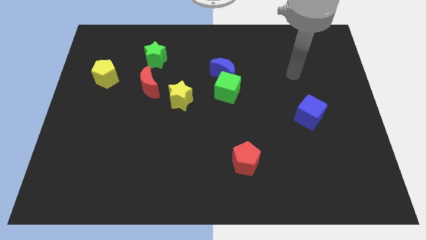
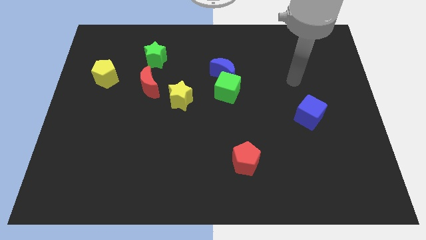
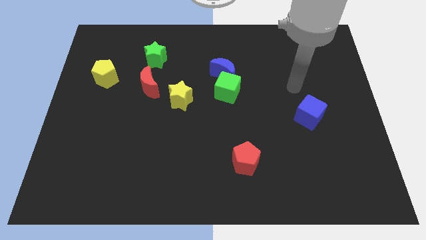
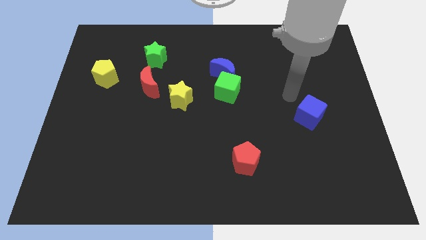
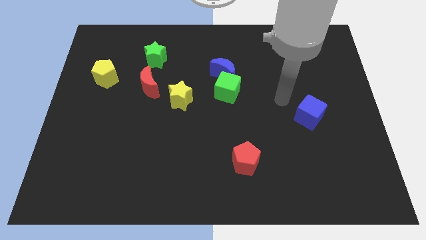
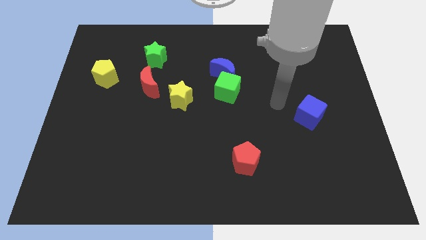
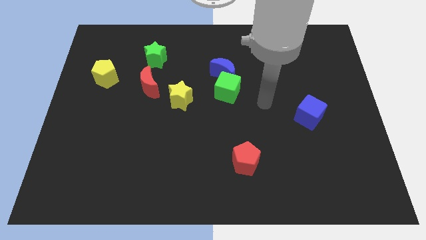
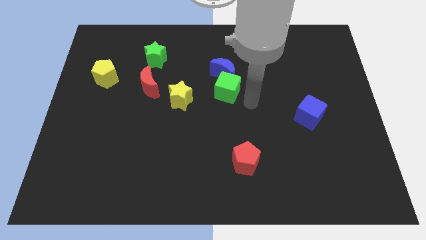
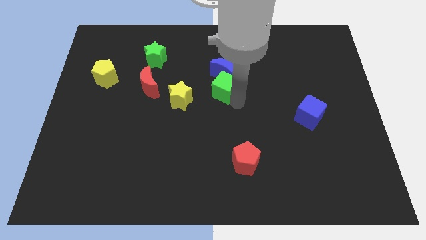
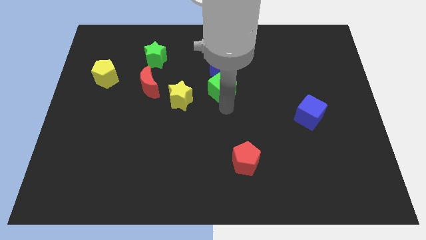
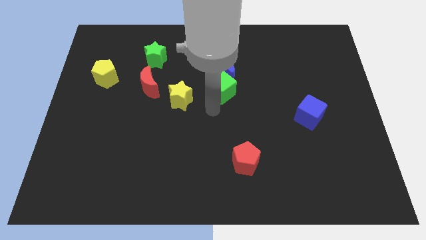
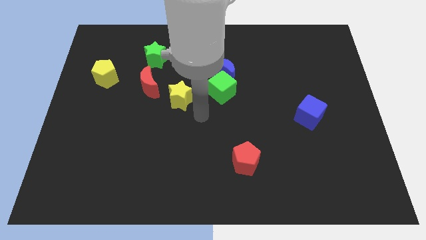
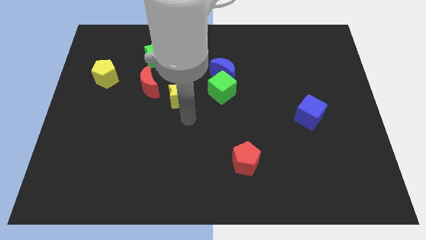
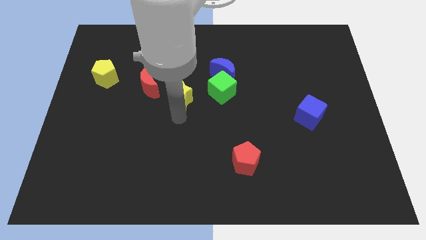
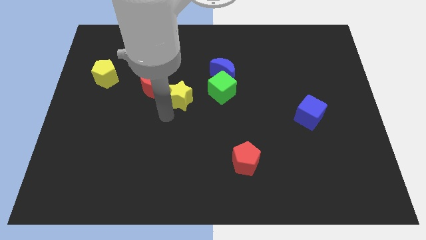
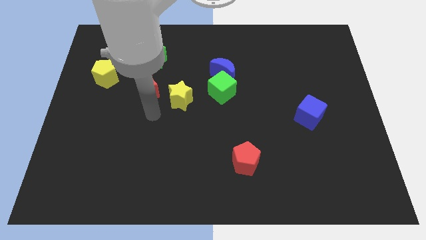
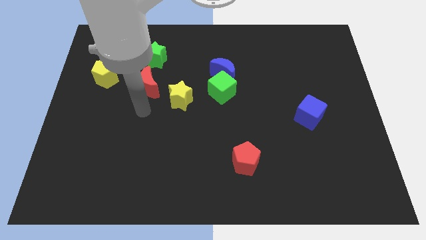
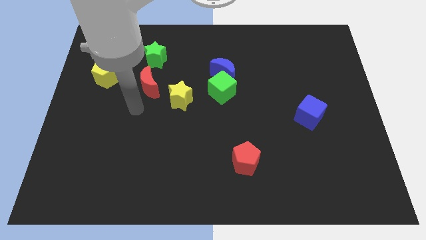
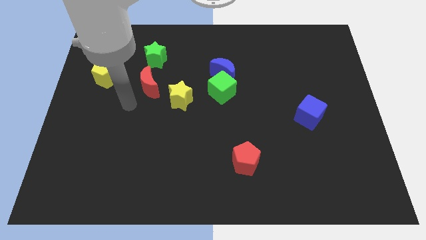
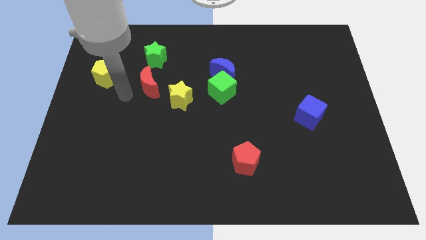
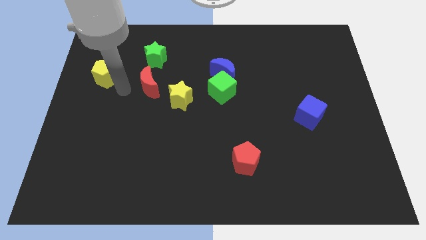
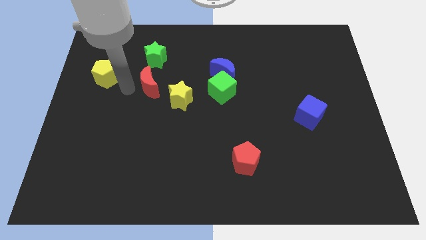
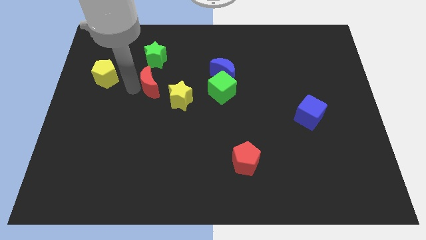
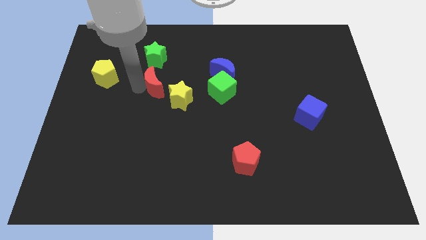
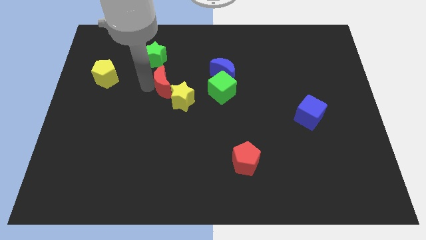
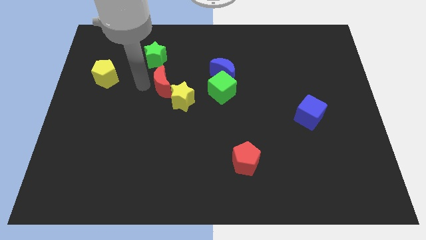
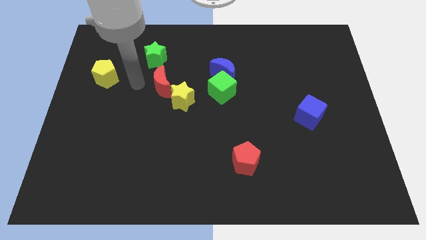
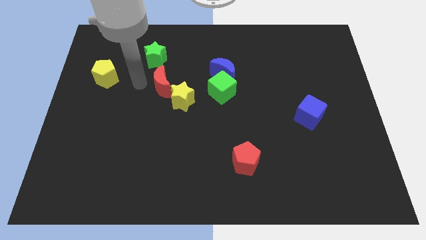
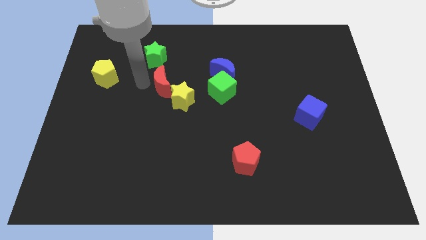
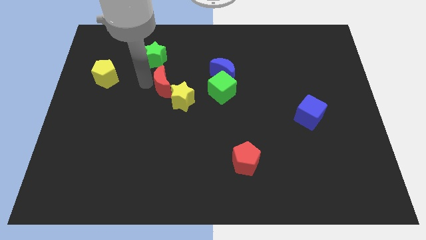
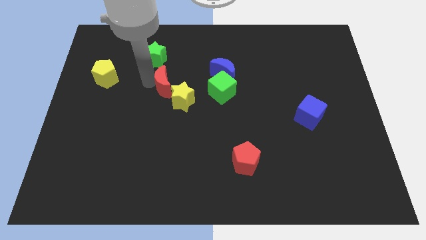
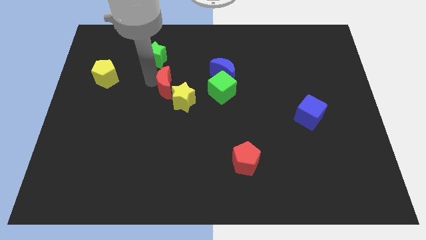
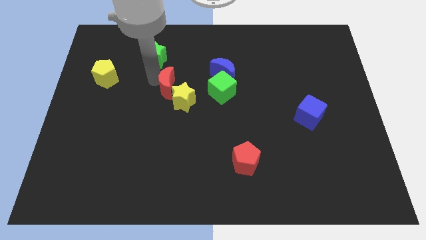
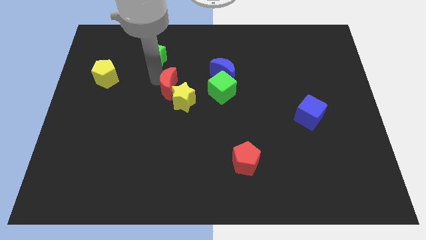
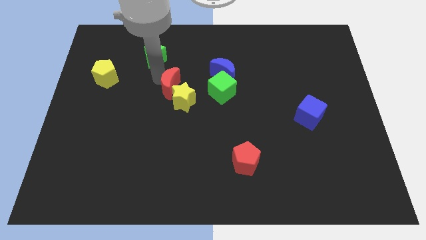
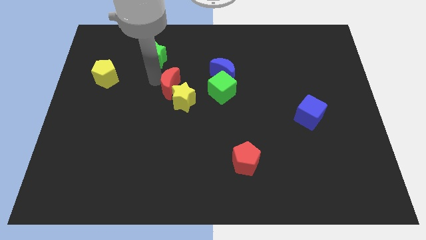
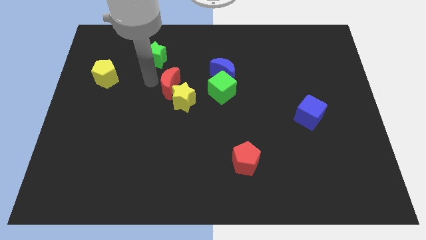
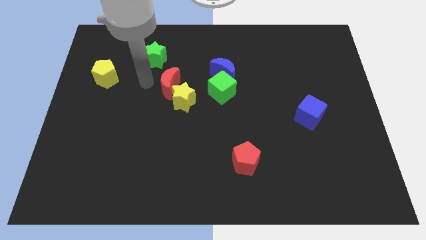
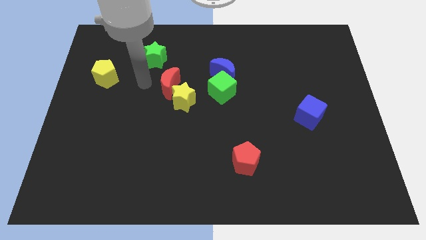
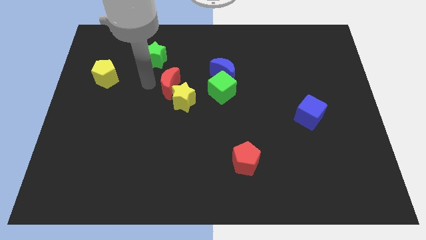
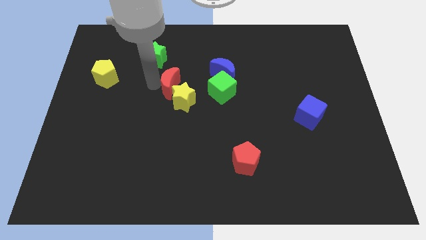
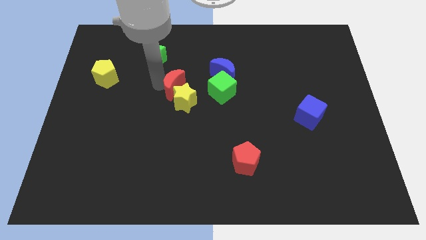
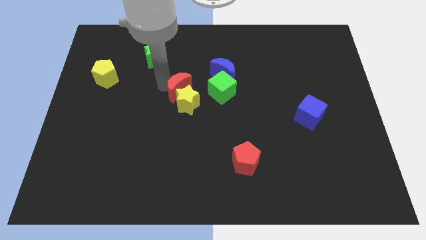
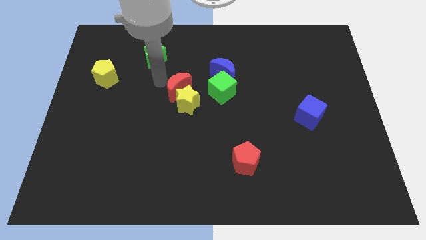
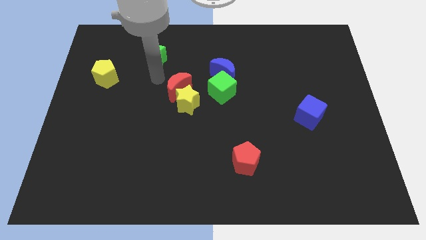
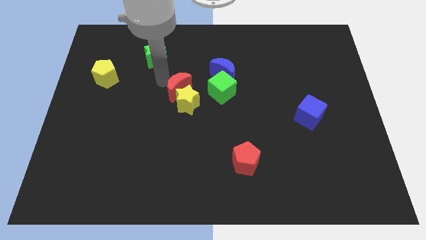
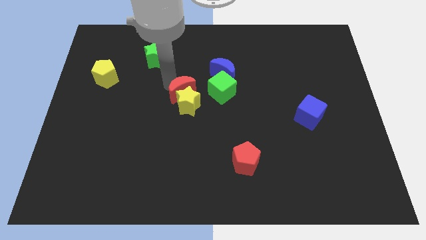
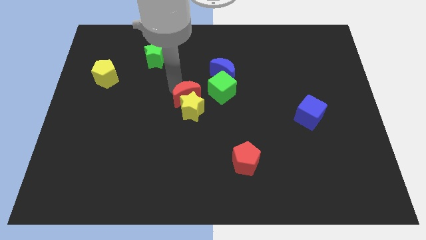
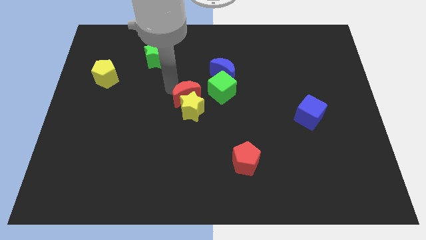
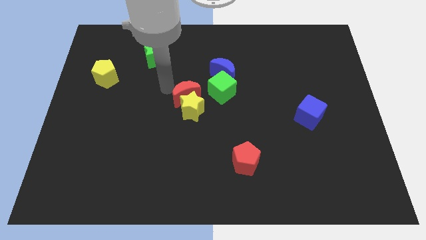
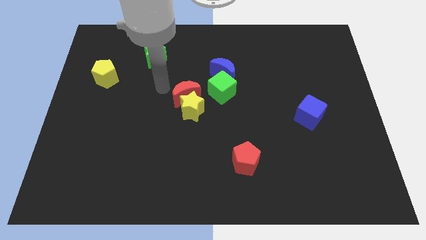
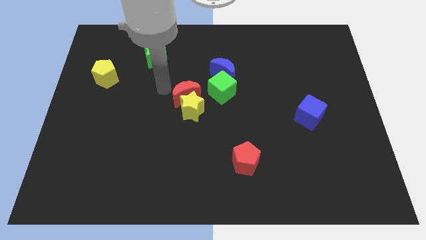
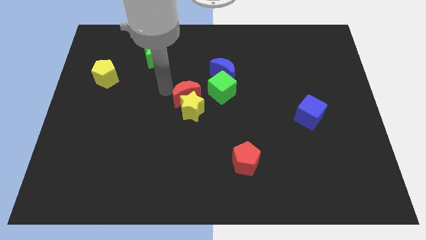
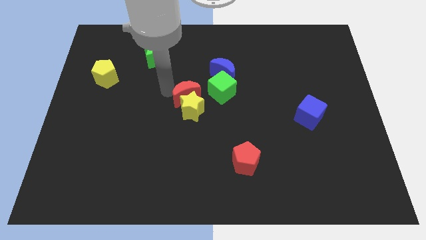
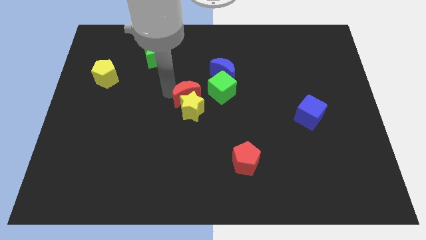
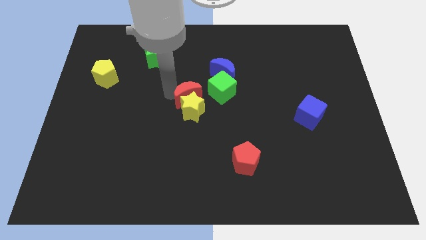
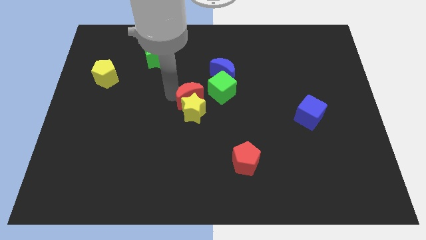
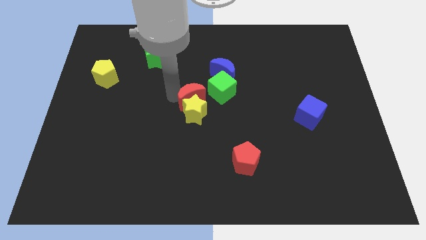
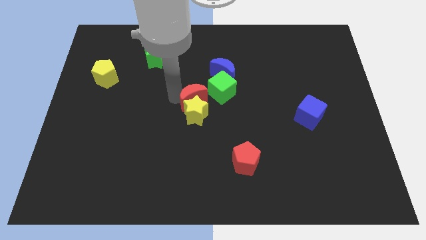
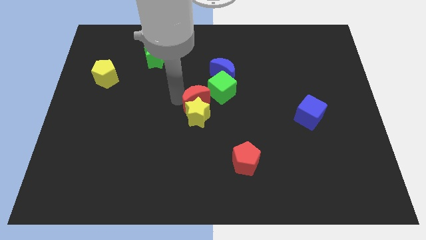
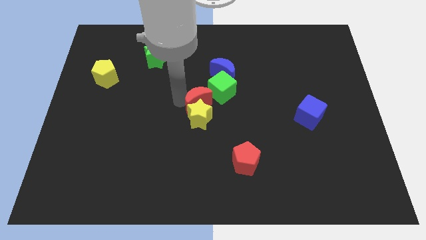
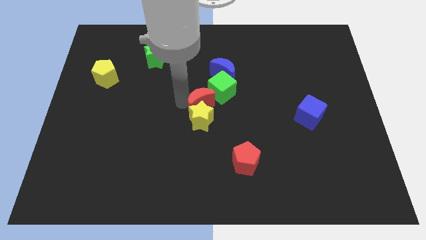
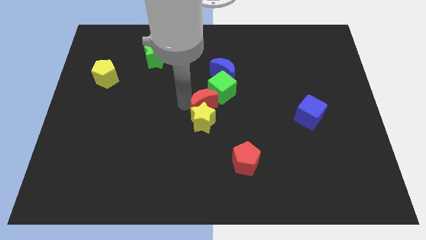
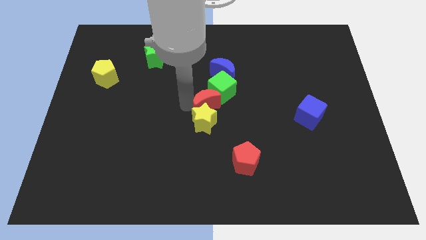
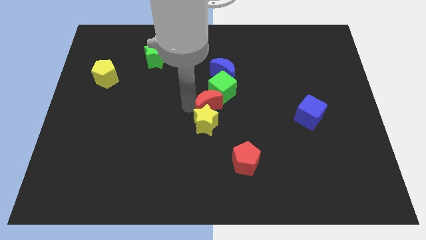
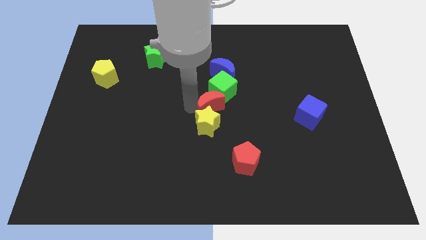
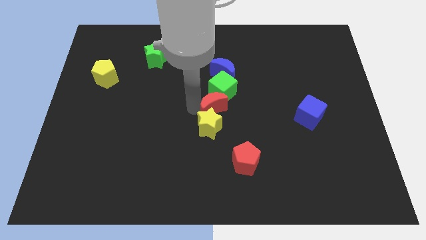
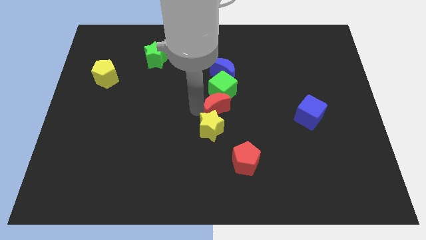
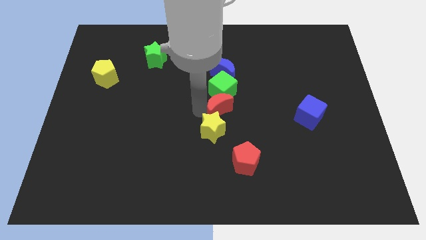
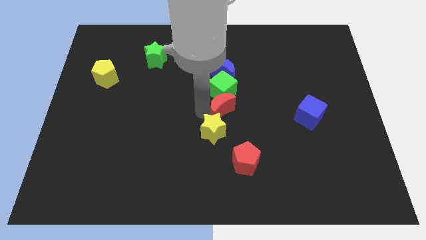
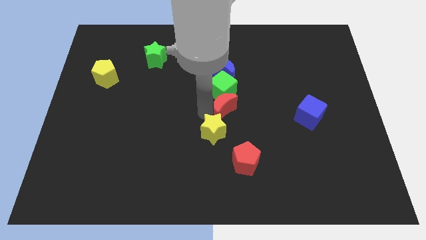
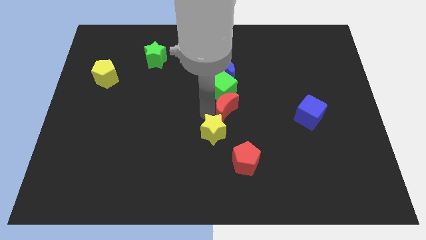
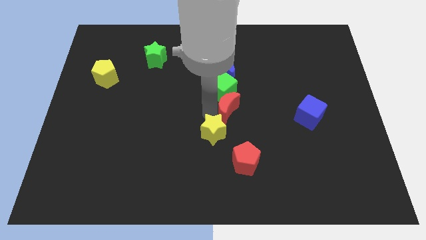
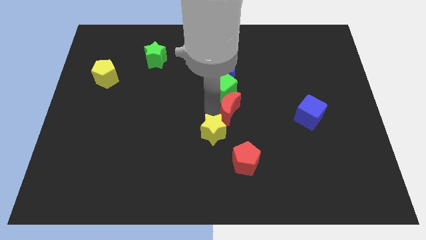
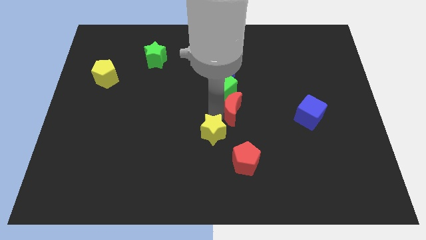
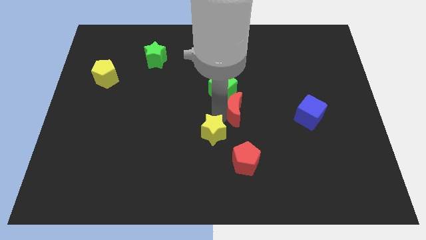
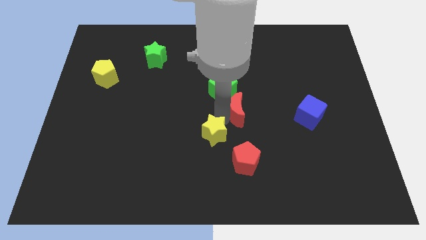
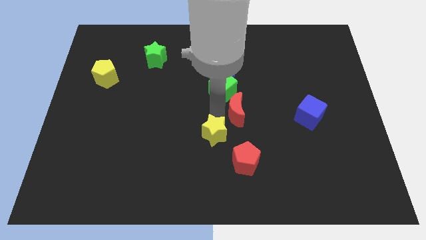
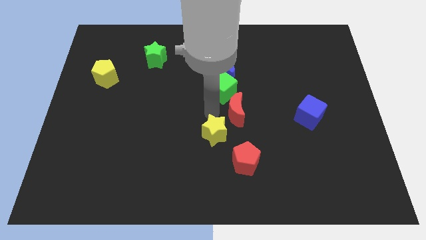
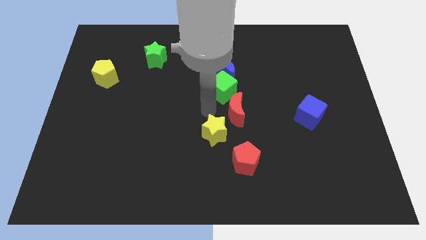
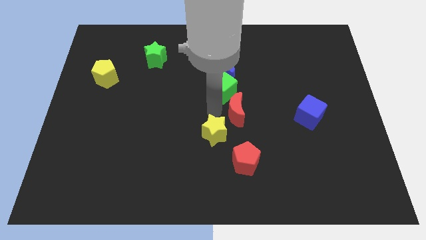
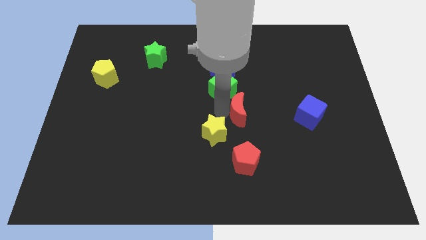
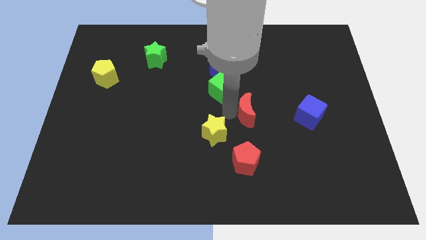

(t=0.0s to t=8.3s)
slide the red moon left of the blue cube
